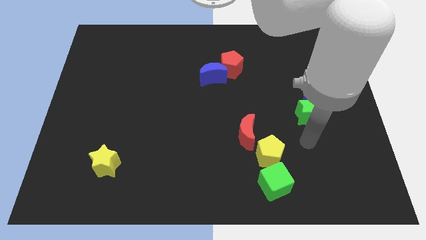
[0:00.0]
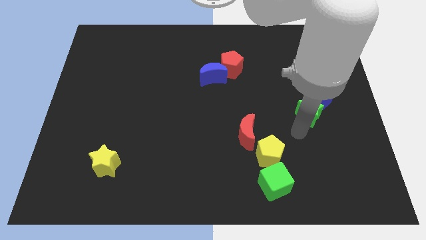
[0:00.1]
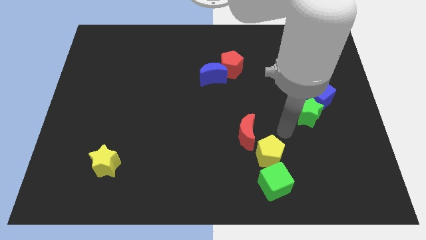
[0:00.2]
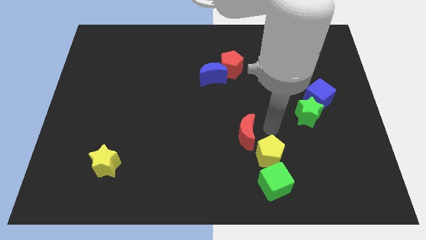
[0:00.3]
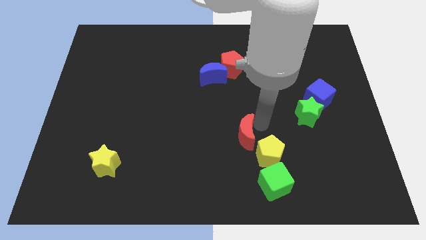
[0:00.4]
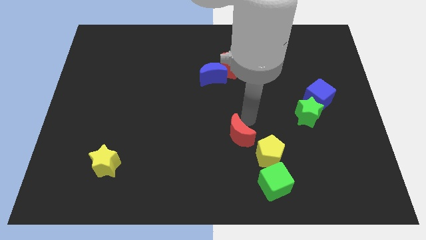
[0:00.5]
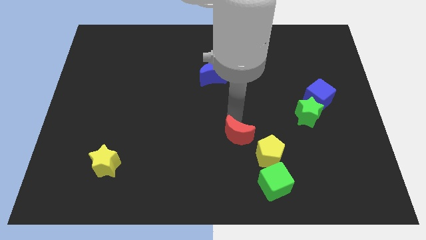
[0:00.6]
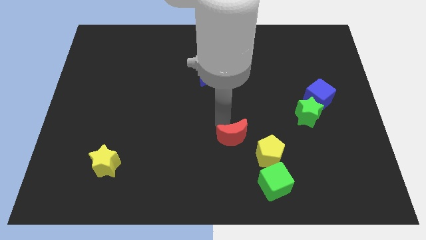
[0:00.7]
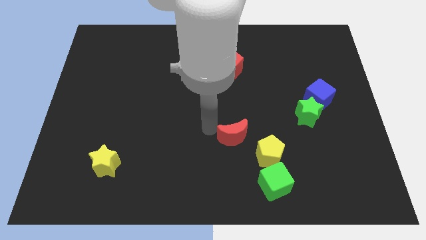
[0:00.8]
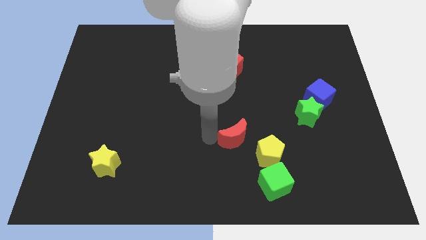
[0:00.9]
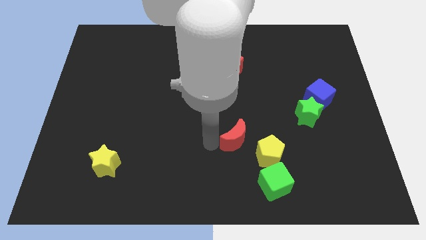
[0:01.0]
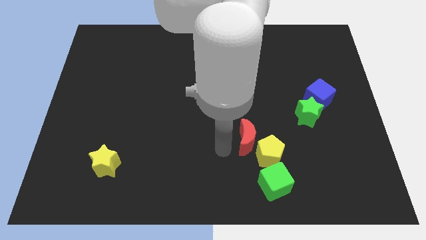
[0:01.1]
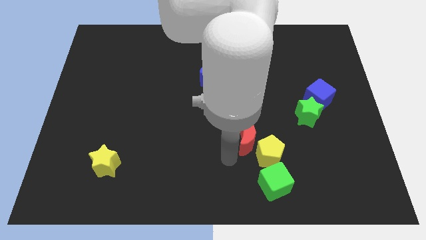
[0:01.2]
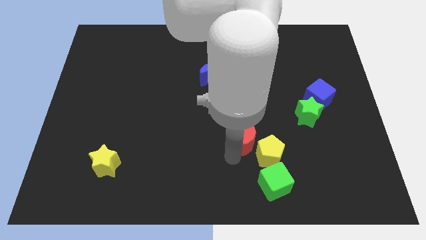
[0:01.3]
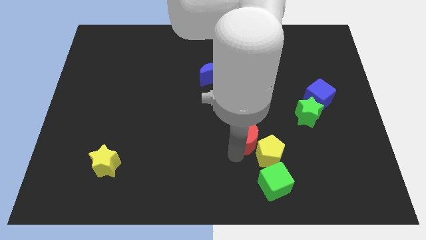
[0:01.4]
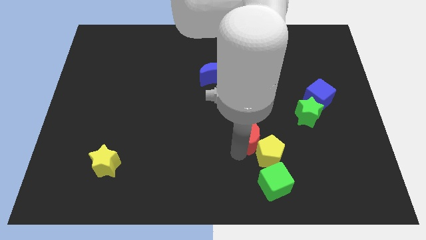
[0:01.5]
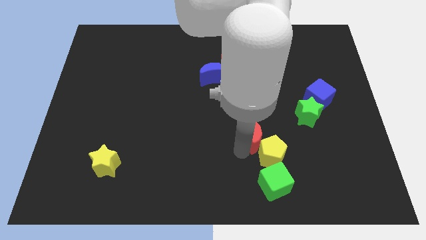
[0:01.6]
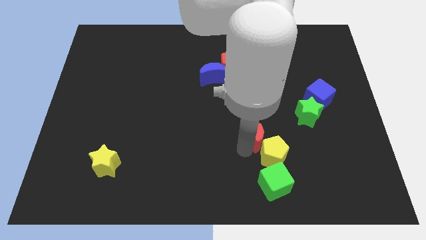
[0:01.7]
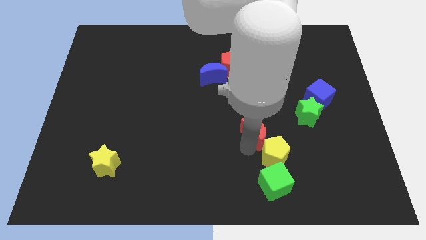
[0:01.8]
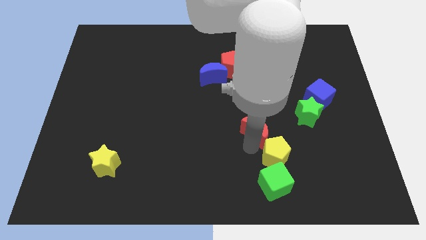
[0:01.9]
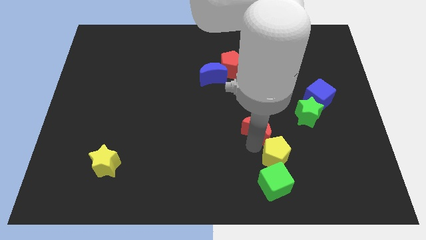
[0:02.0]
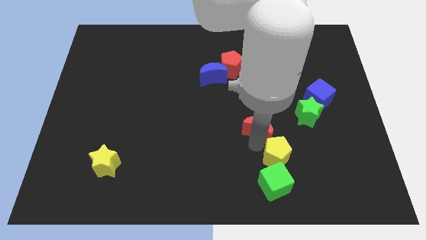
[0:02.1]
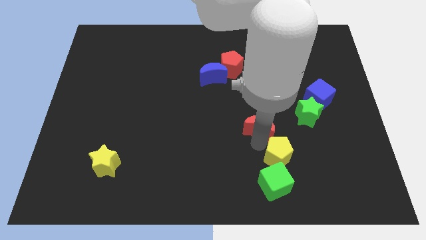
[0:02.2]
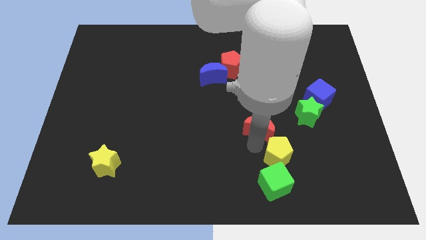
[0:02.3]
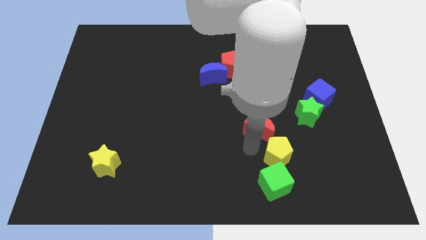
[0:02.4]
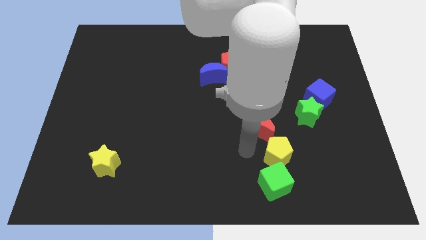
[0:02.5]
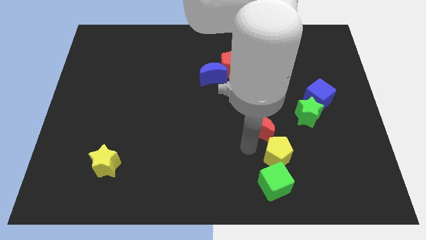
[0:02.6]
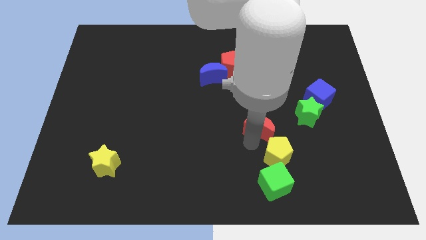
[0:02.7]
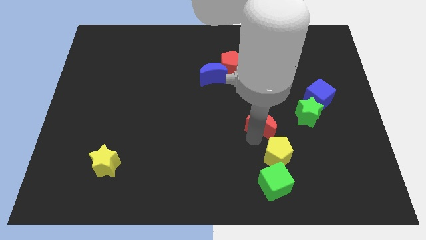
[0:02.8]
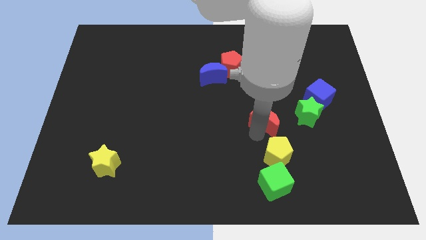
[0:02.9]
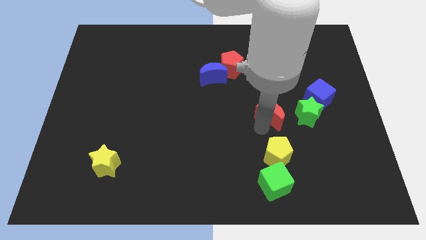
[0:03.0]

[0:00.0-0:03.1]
slightly move the red moon diagonally upwards and to the right

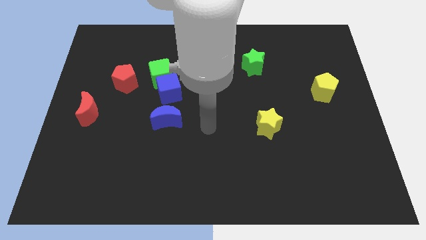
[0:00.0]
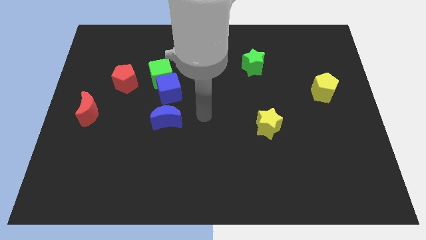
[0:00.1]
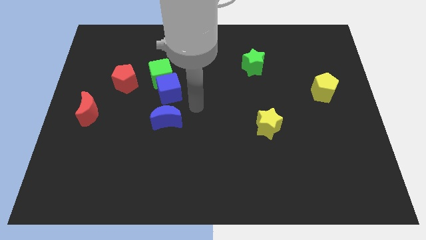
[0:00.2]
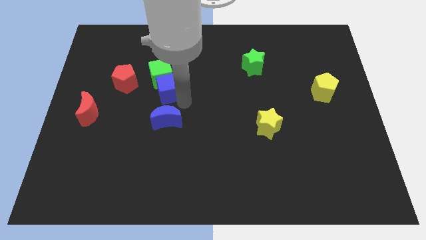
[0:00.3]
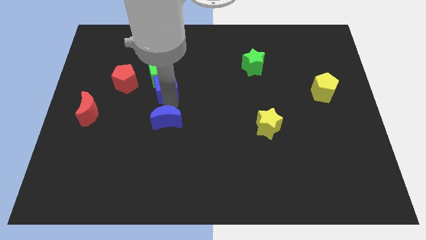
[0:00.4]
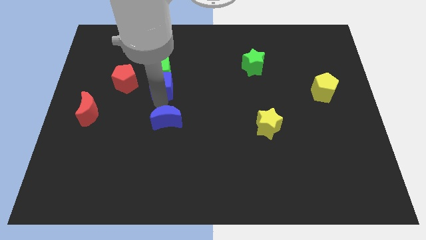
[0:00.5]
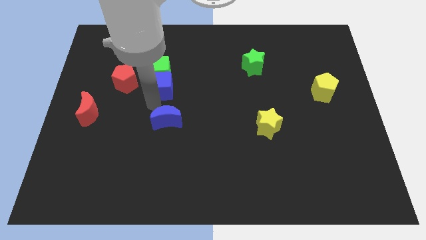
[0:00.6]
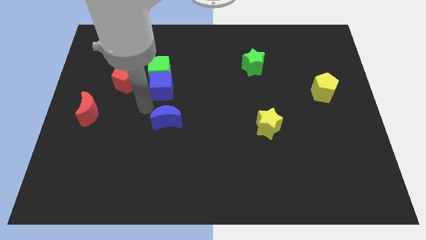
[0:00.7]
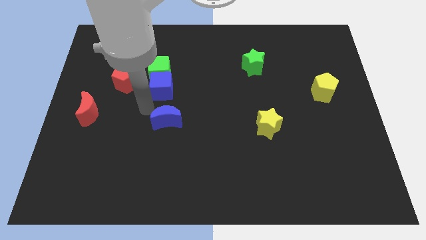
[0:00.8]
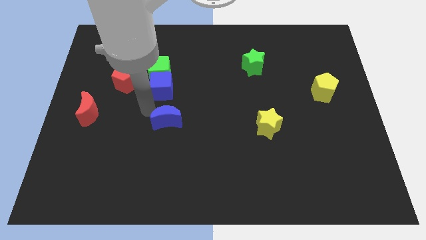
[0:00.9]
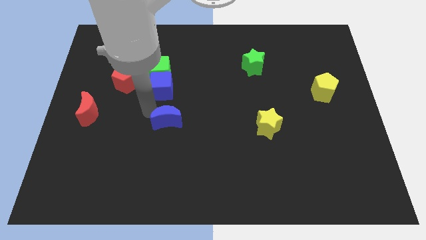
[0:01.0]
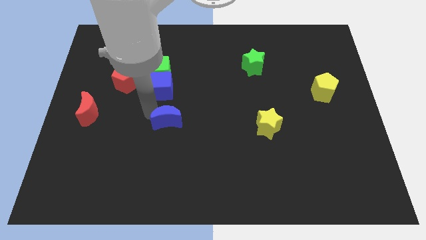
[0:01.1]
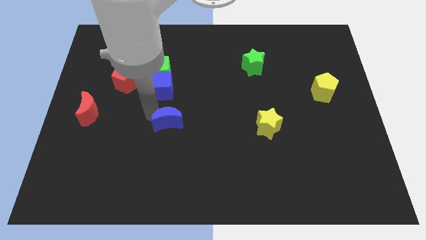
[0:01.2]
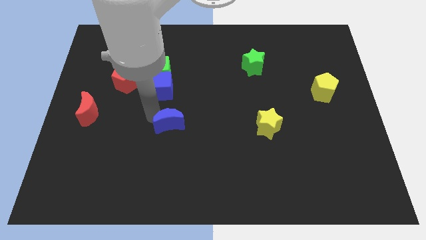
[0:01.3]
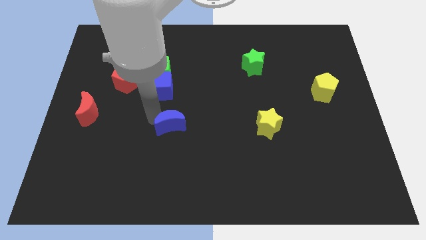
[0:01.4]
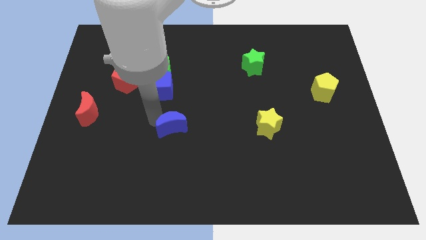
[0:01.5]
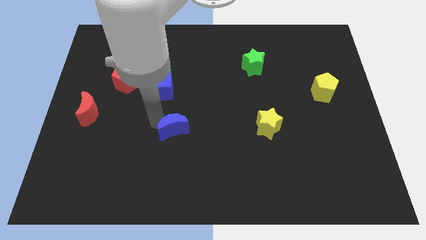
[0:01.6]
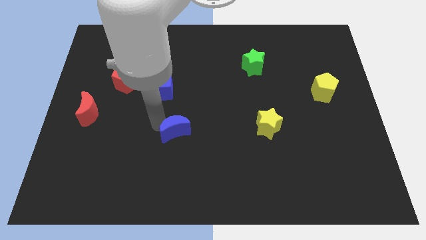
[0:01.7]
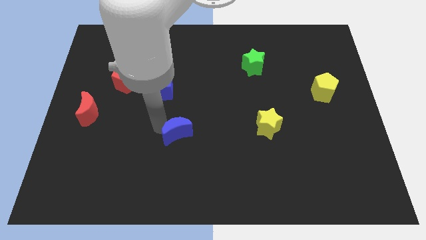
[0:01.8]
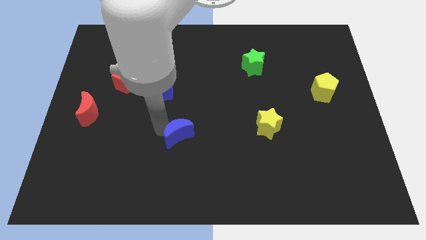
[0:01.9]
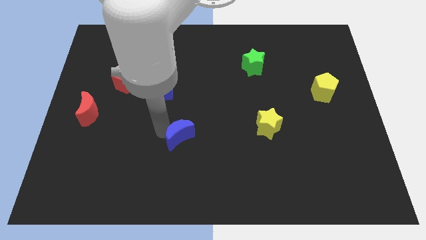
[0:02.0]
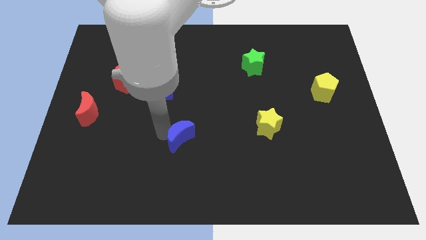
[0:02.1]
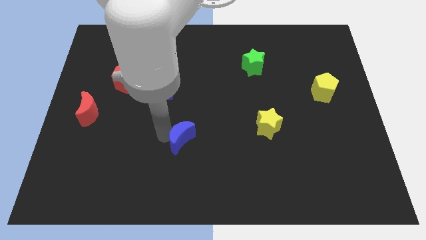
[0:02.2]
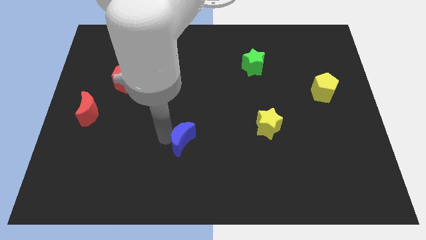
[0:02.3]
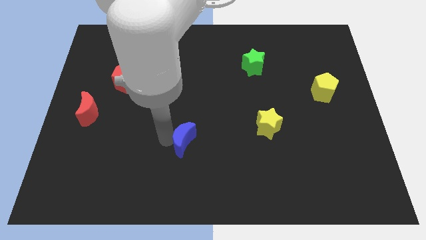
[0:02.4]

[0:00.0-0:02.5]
move the blue moon down and then to the right somewhat

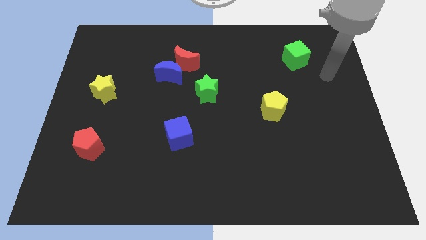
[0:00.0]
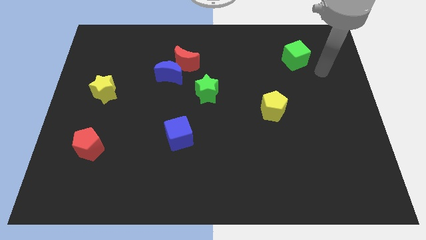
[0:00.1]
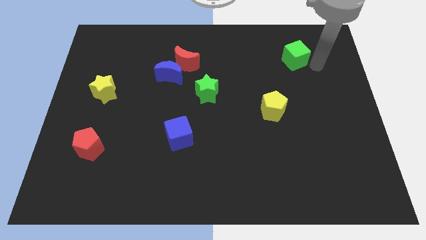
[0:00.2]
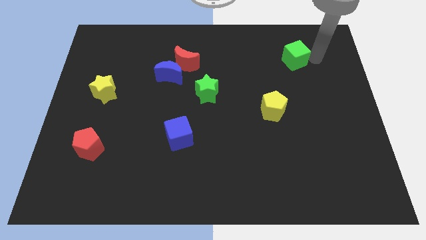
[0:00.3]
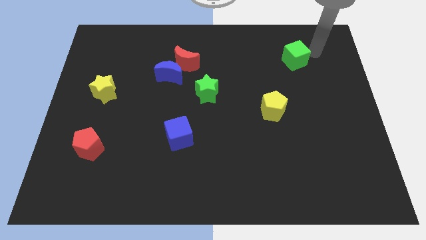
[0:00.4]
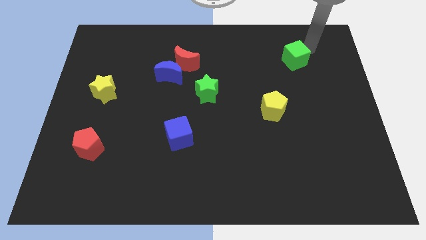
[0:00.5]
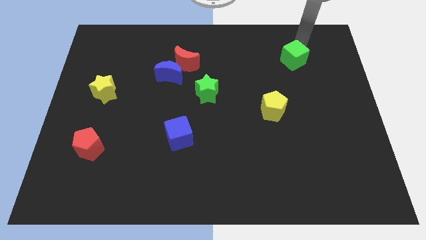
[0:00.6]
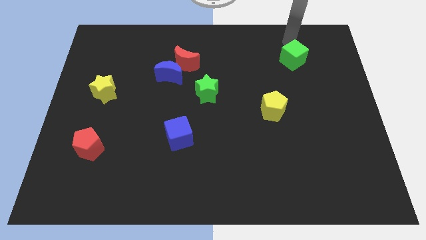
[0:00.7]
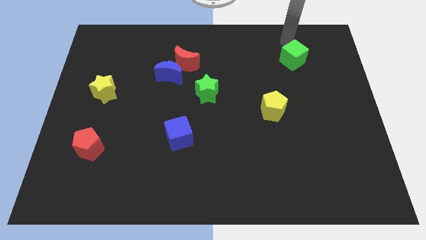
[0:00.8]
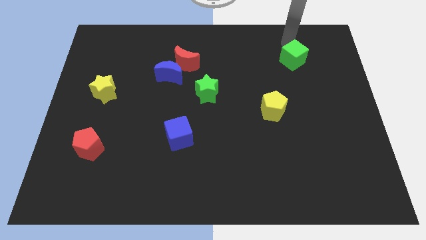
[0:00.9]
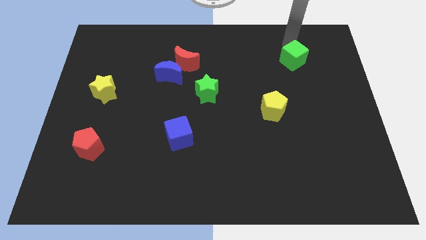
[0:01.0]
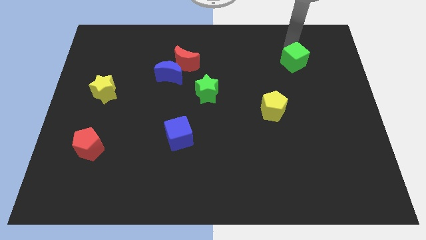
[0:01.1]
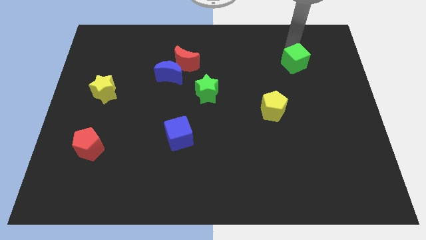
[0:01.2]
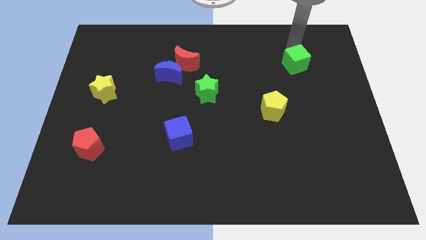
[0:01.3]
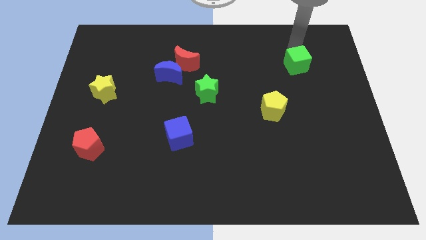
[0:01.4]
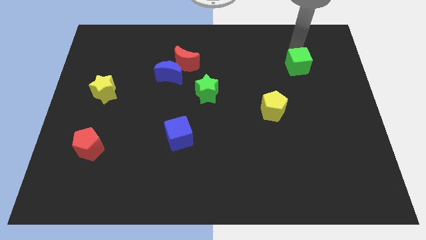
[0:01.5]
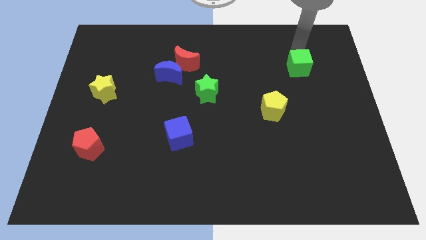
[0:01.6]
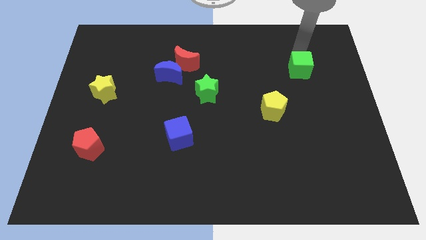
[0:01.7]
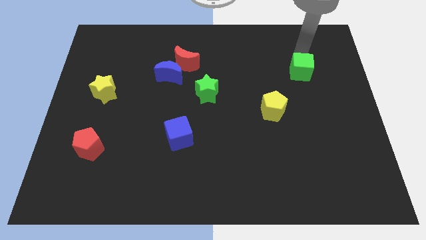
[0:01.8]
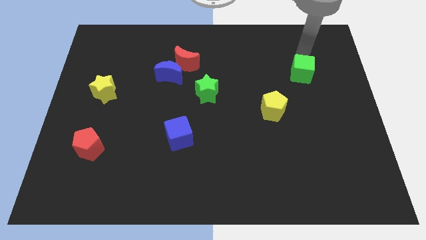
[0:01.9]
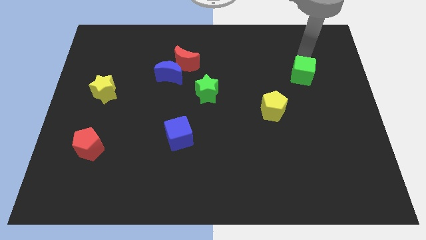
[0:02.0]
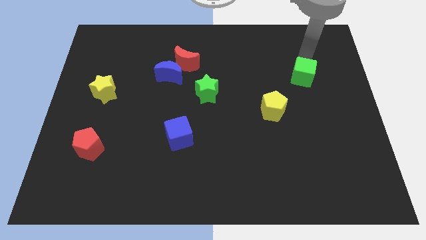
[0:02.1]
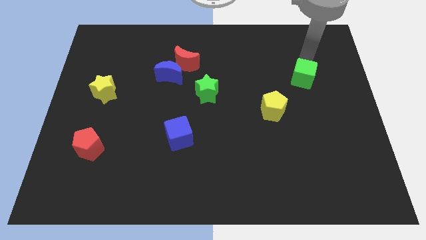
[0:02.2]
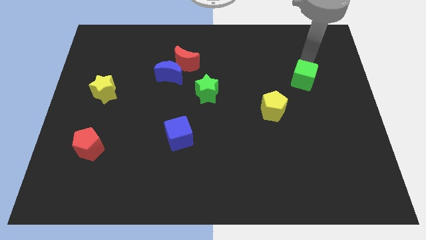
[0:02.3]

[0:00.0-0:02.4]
slide the green cube somewhat downwards
